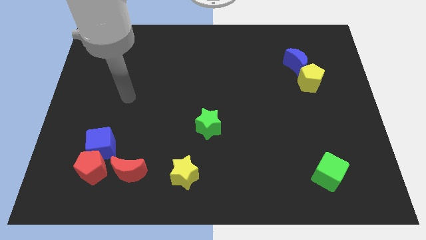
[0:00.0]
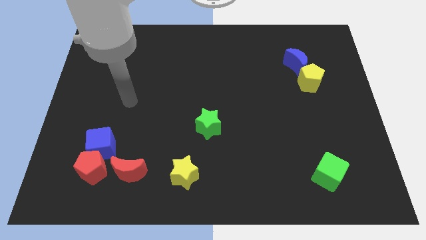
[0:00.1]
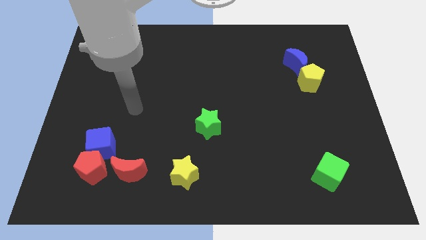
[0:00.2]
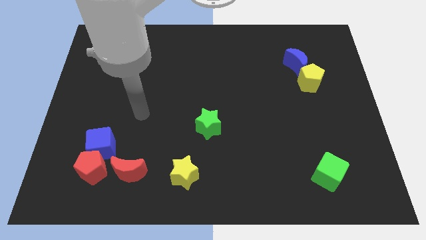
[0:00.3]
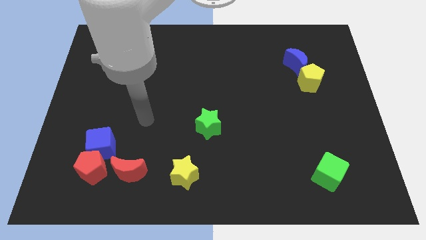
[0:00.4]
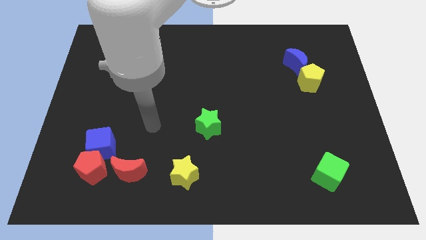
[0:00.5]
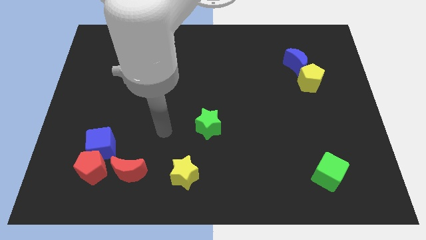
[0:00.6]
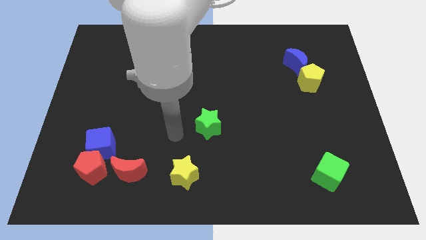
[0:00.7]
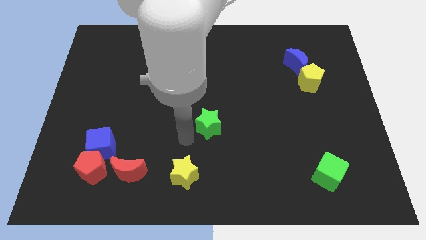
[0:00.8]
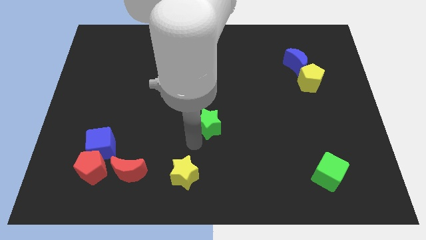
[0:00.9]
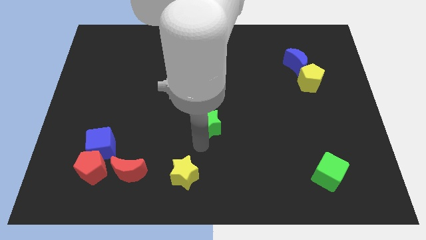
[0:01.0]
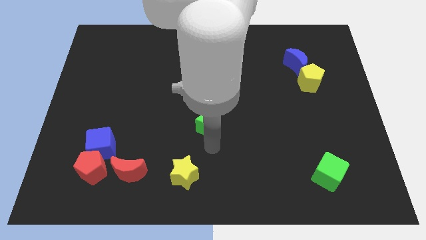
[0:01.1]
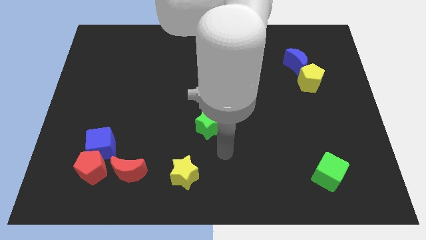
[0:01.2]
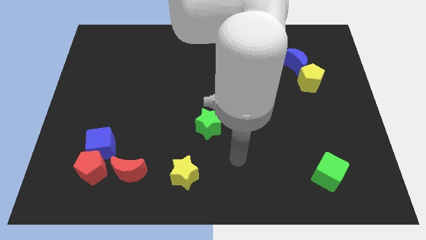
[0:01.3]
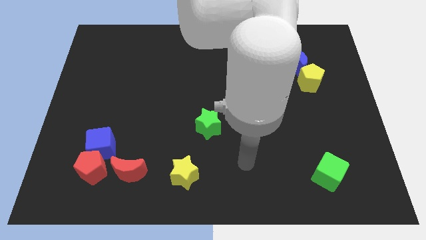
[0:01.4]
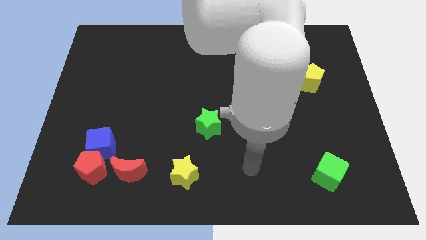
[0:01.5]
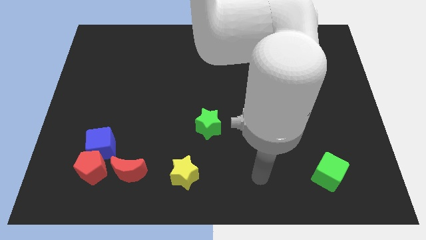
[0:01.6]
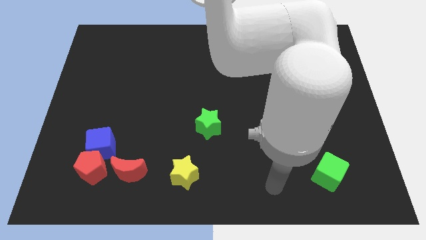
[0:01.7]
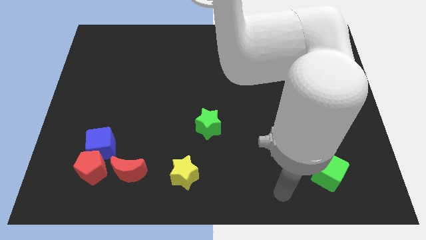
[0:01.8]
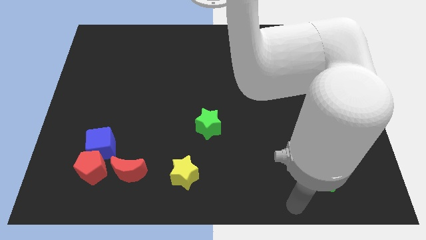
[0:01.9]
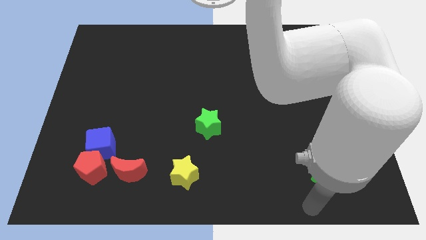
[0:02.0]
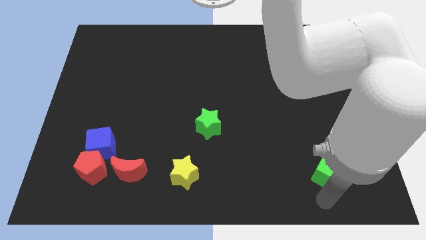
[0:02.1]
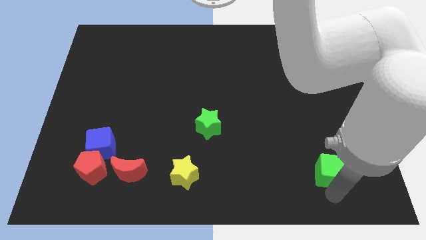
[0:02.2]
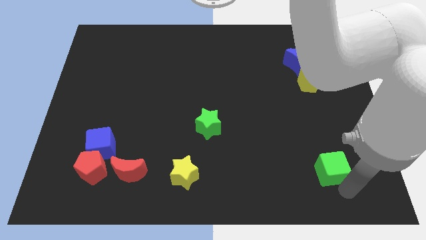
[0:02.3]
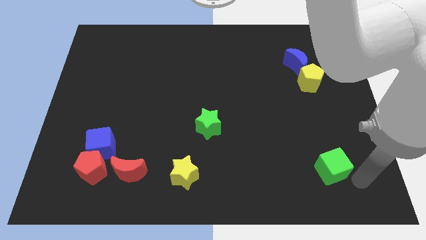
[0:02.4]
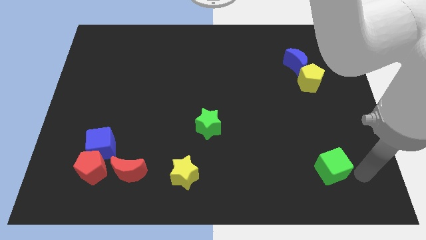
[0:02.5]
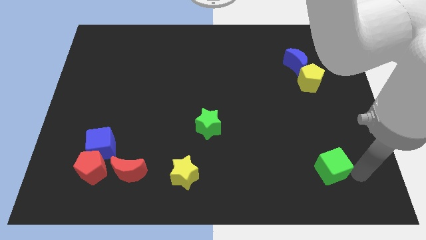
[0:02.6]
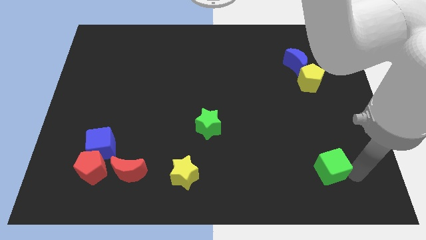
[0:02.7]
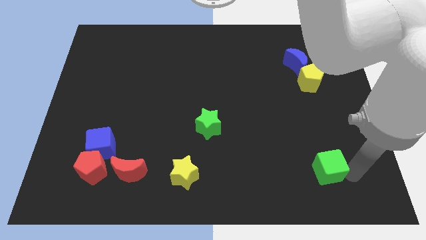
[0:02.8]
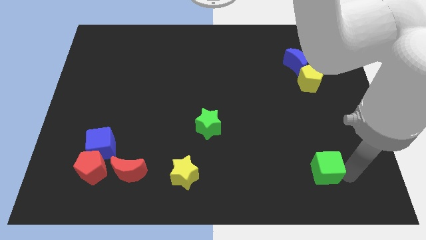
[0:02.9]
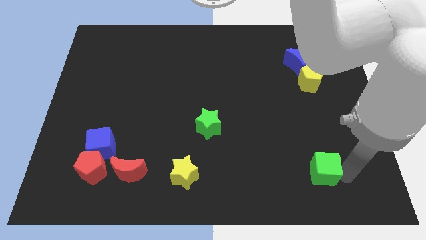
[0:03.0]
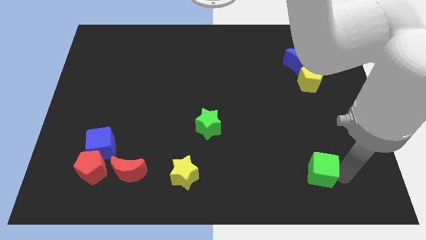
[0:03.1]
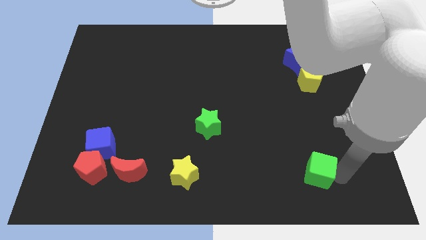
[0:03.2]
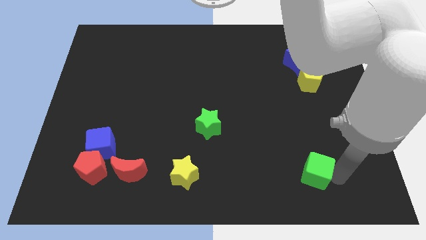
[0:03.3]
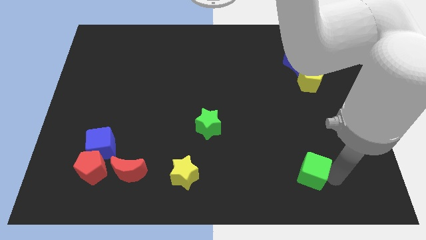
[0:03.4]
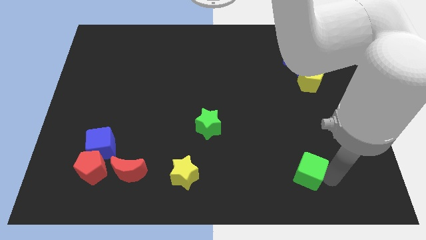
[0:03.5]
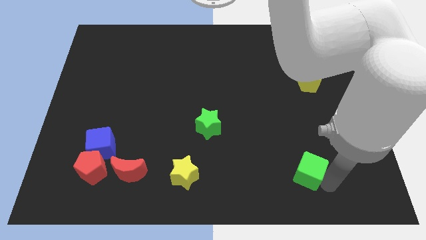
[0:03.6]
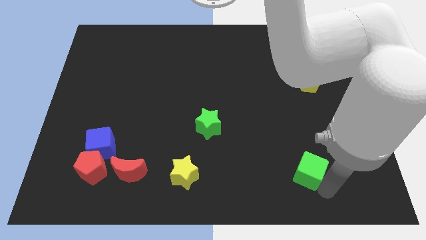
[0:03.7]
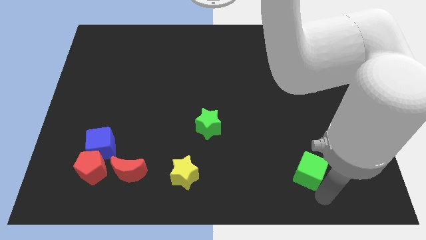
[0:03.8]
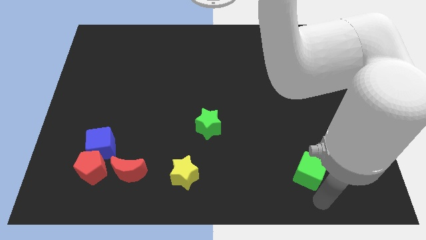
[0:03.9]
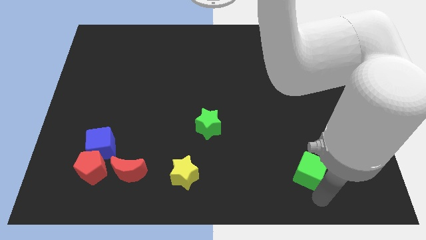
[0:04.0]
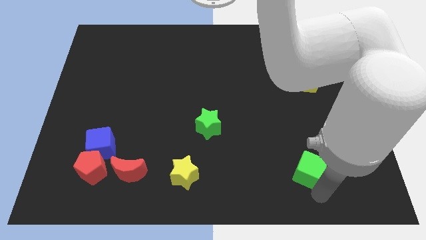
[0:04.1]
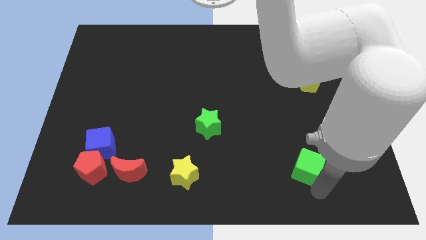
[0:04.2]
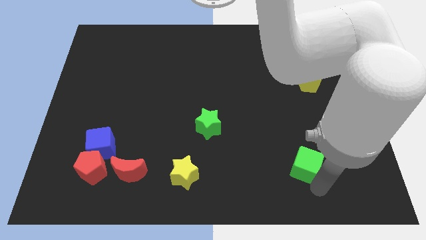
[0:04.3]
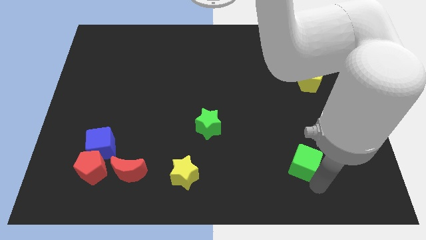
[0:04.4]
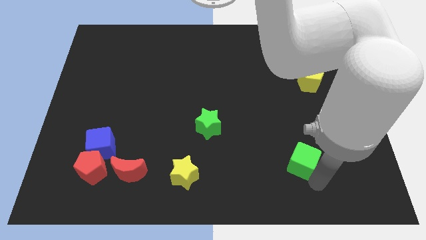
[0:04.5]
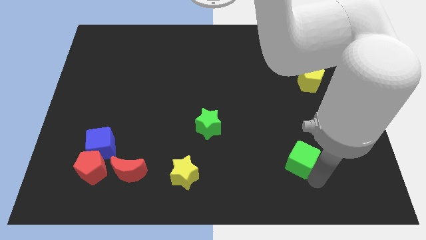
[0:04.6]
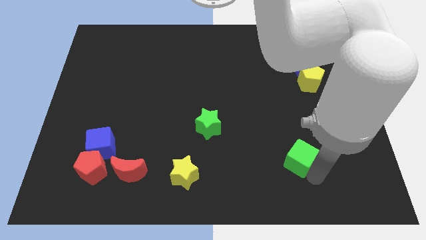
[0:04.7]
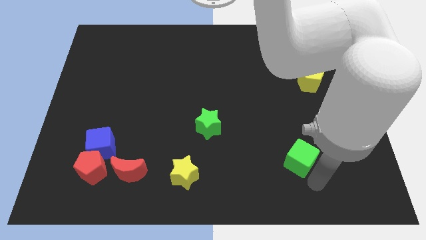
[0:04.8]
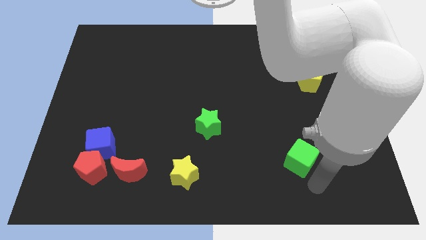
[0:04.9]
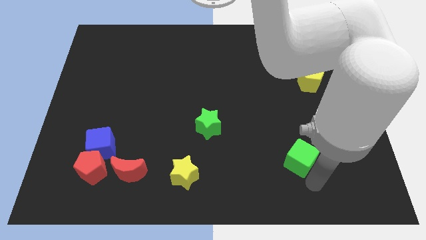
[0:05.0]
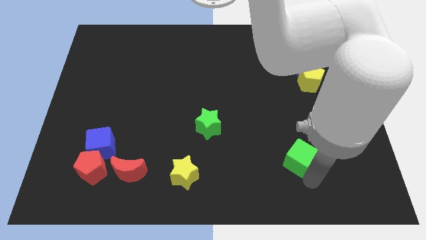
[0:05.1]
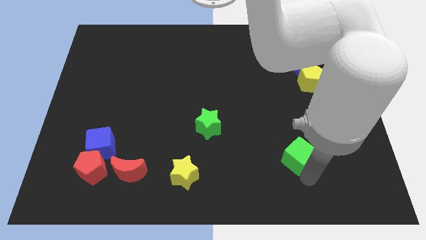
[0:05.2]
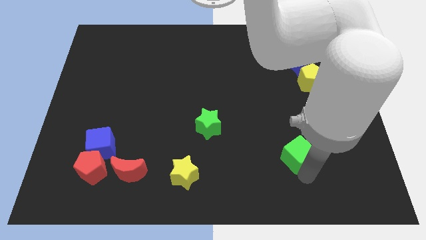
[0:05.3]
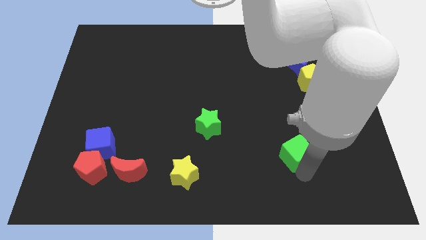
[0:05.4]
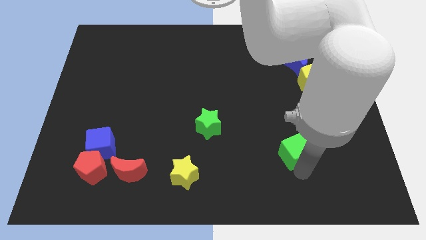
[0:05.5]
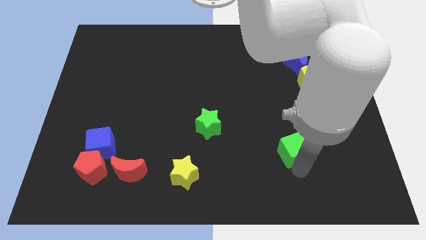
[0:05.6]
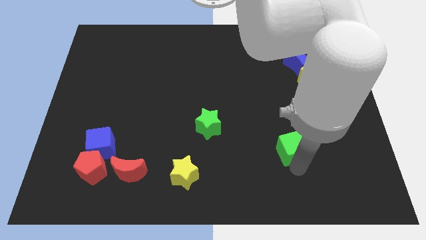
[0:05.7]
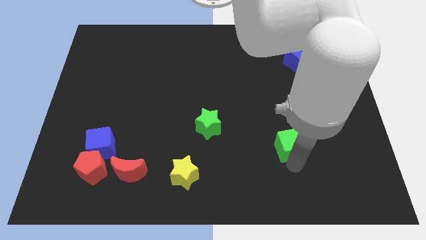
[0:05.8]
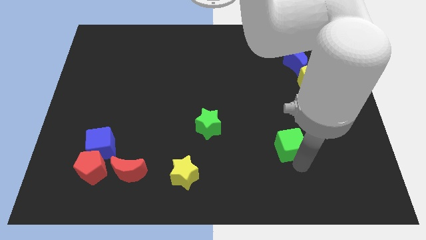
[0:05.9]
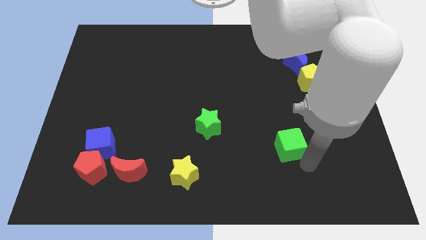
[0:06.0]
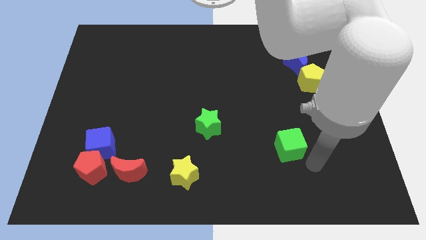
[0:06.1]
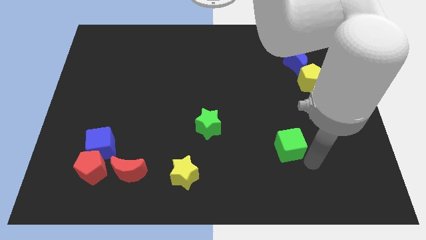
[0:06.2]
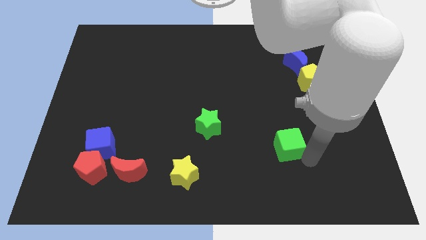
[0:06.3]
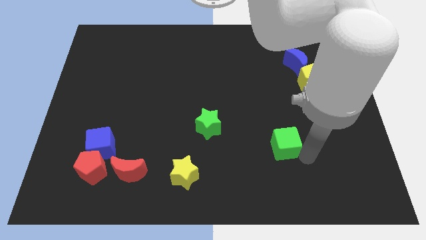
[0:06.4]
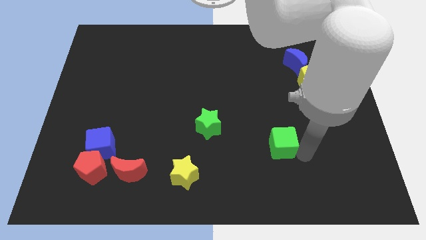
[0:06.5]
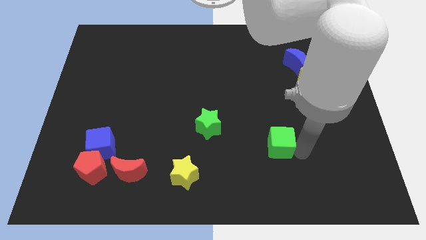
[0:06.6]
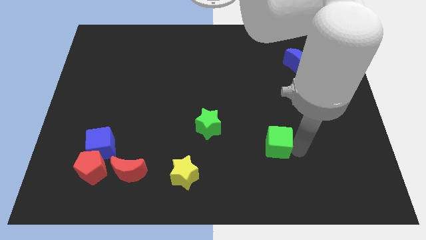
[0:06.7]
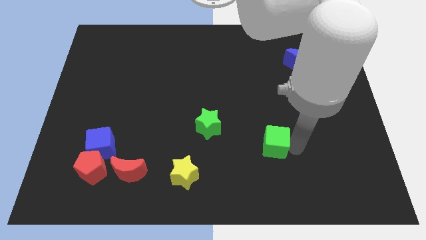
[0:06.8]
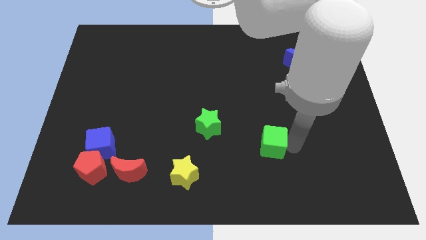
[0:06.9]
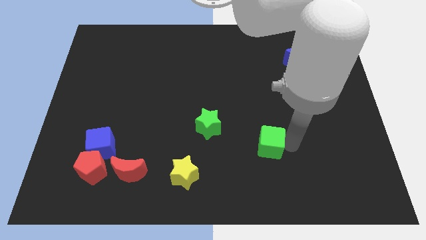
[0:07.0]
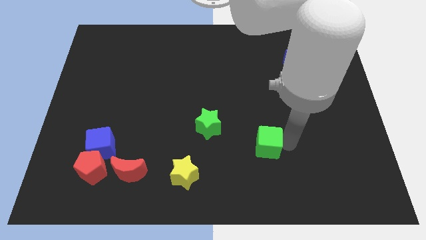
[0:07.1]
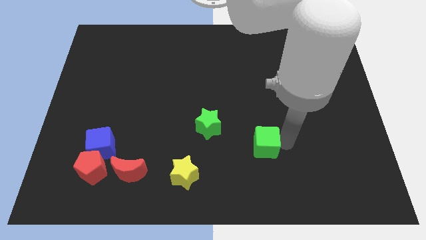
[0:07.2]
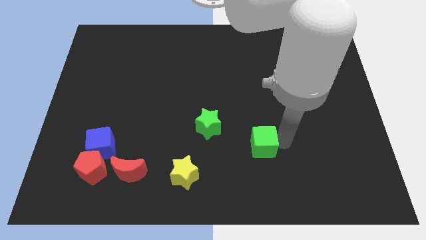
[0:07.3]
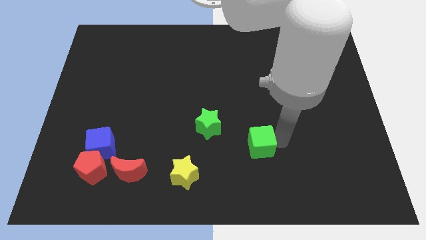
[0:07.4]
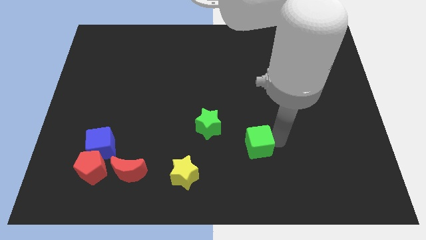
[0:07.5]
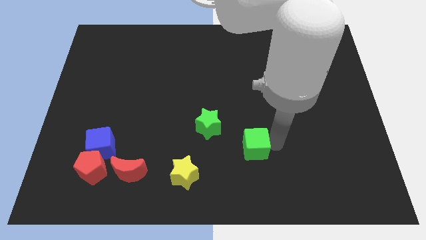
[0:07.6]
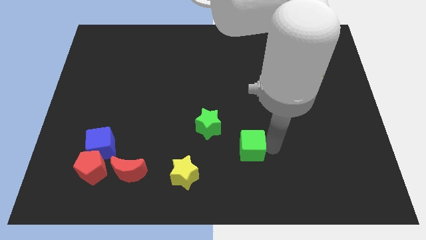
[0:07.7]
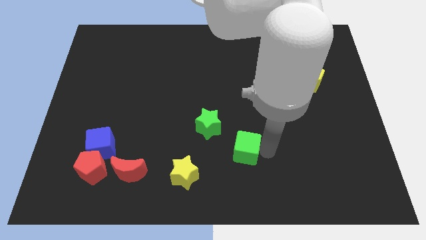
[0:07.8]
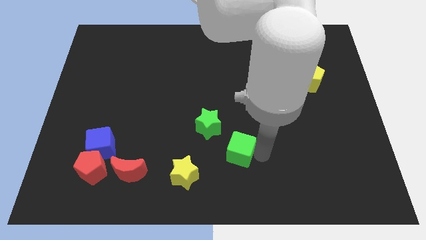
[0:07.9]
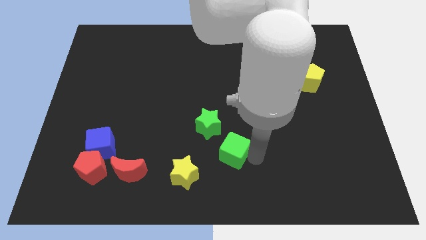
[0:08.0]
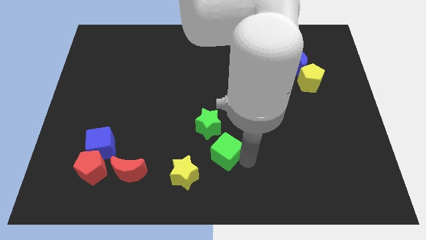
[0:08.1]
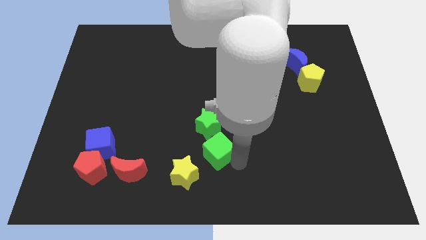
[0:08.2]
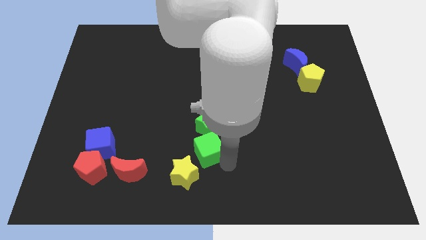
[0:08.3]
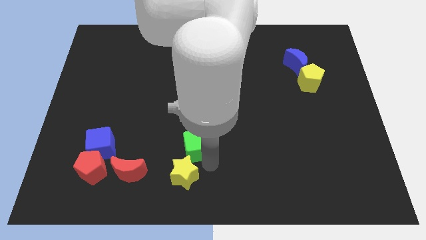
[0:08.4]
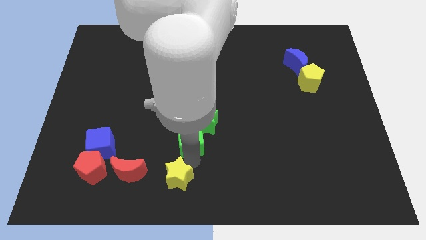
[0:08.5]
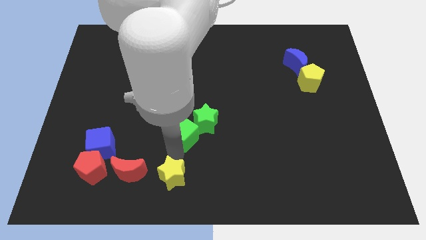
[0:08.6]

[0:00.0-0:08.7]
put the green cube to the middle
